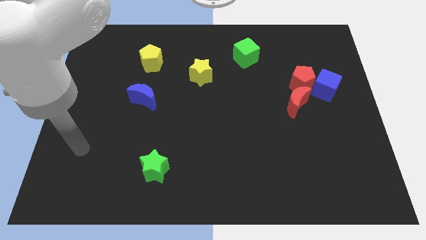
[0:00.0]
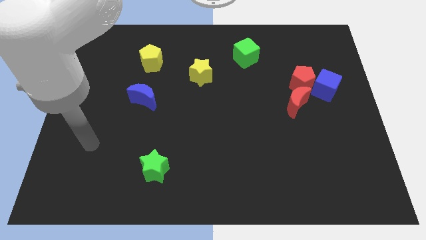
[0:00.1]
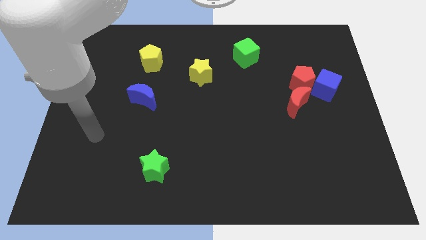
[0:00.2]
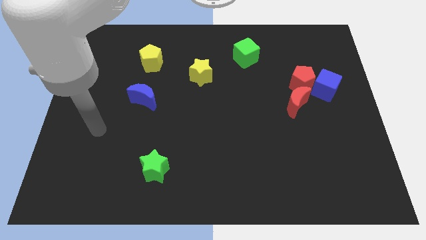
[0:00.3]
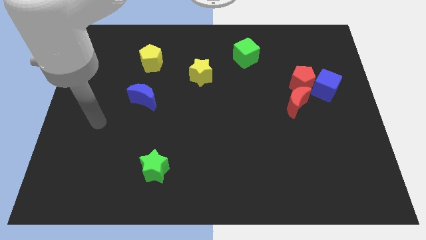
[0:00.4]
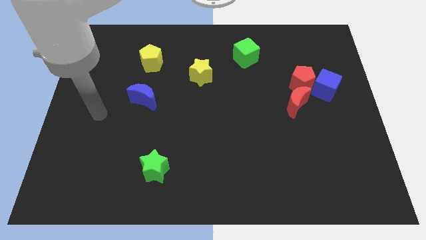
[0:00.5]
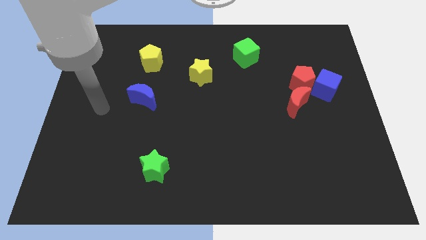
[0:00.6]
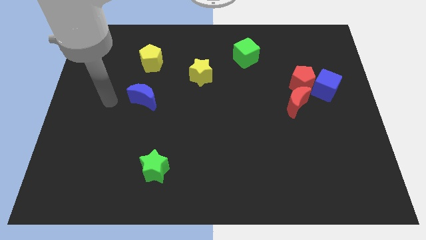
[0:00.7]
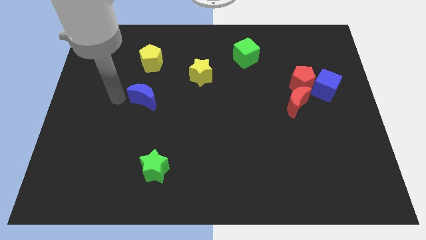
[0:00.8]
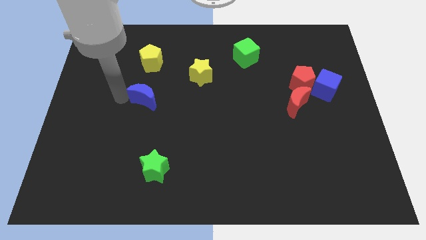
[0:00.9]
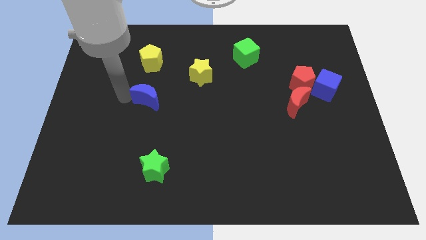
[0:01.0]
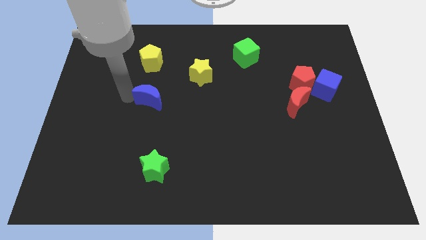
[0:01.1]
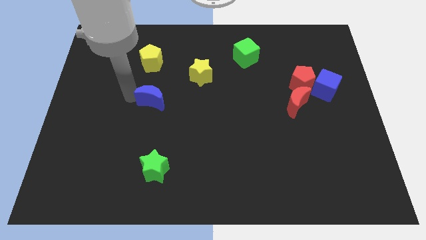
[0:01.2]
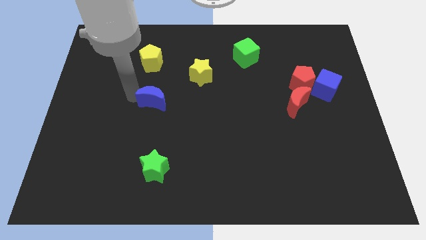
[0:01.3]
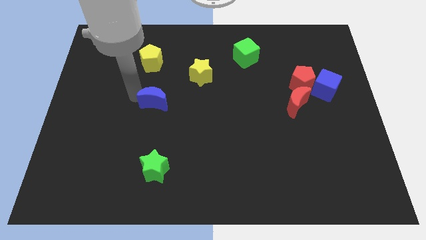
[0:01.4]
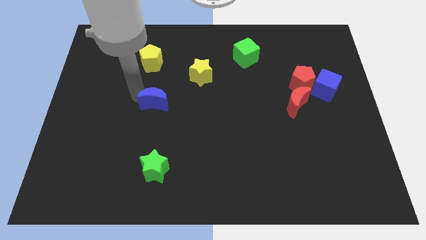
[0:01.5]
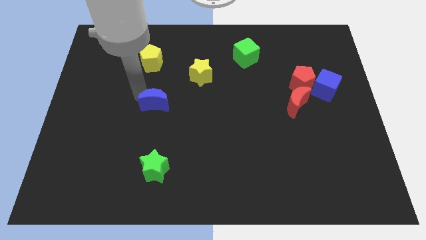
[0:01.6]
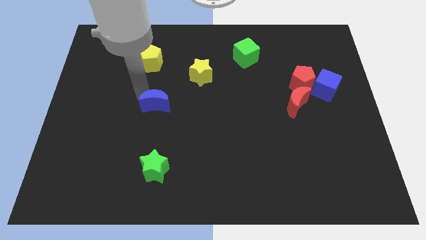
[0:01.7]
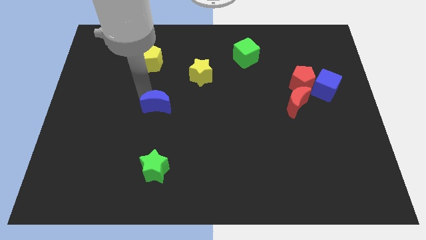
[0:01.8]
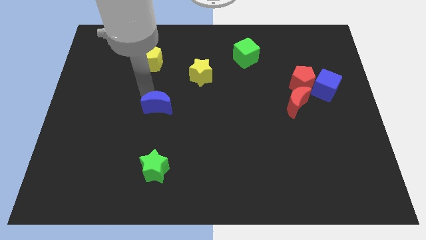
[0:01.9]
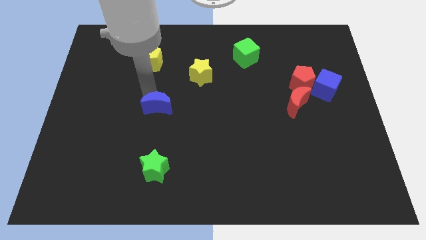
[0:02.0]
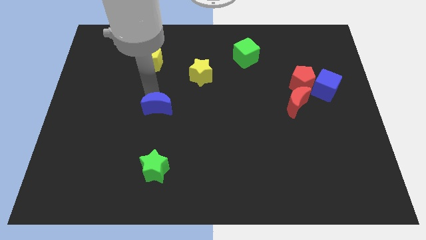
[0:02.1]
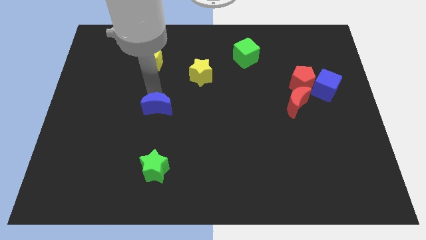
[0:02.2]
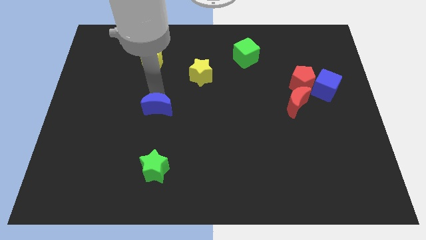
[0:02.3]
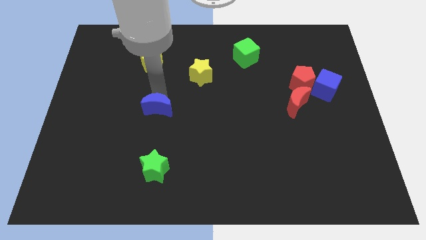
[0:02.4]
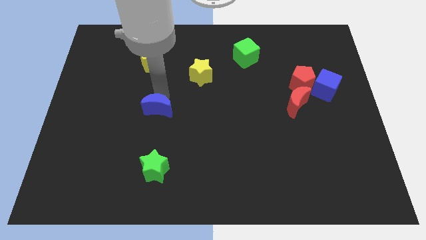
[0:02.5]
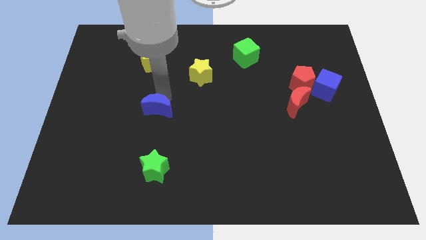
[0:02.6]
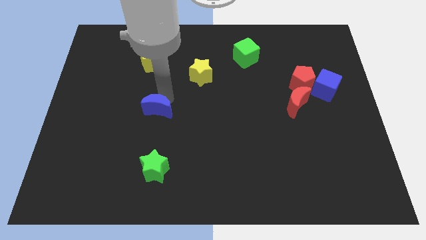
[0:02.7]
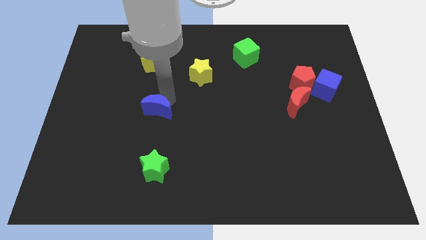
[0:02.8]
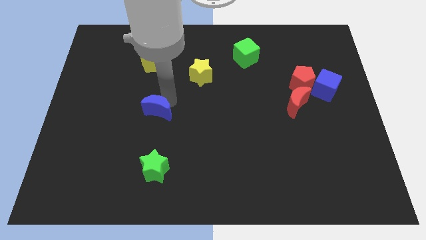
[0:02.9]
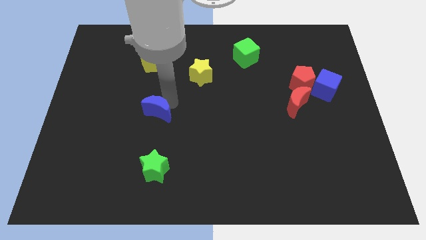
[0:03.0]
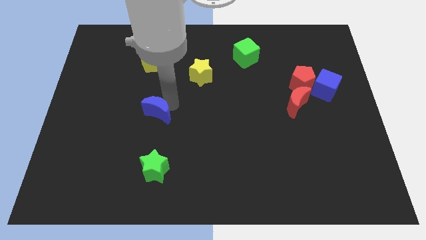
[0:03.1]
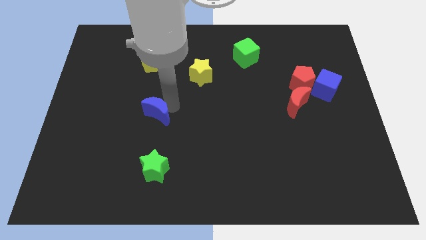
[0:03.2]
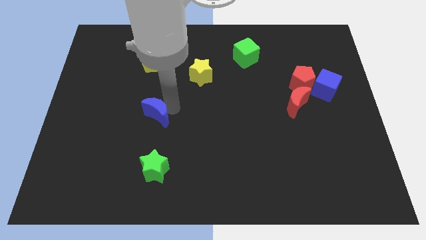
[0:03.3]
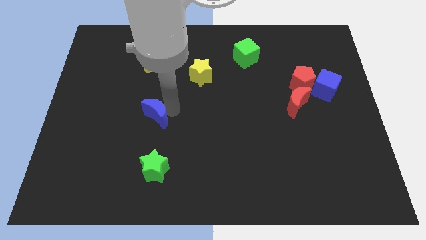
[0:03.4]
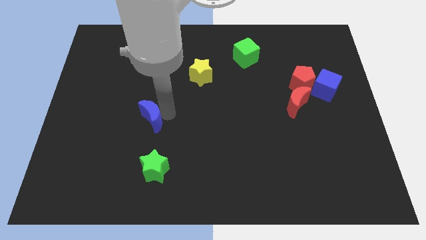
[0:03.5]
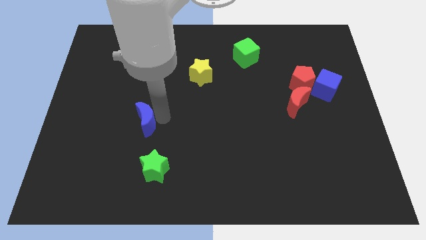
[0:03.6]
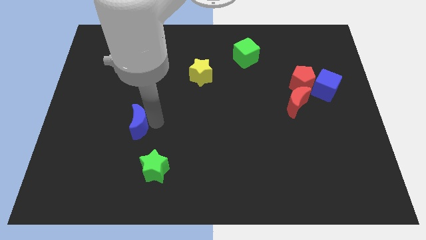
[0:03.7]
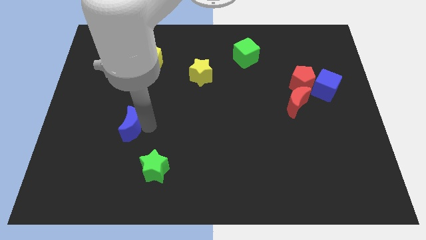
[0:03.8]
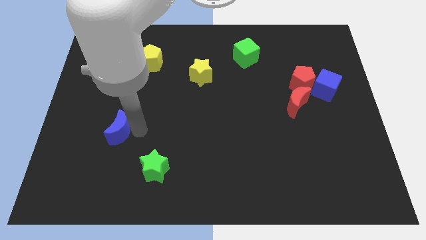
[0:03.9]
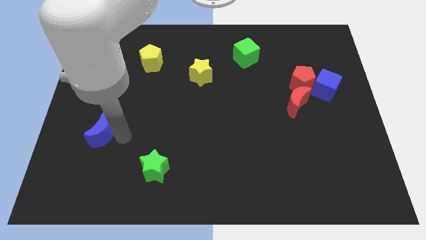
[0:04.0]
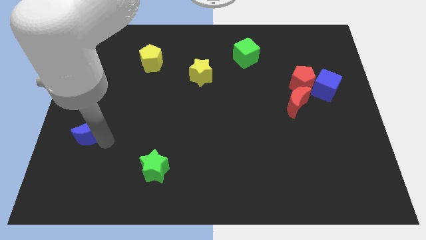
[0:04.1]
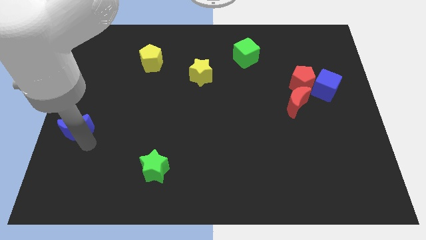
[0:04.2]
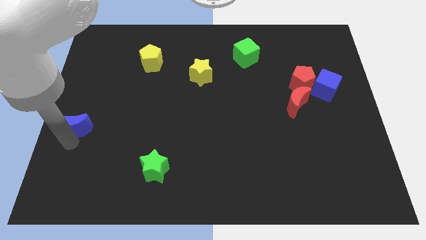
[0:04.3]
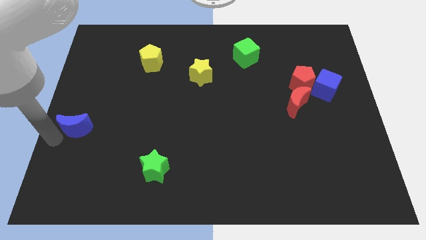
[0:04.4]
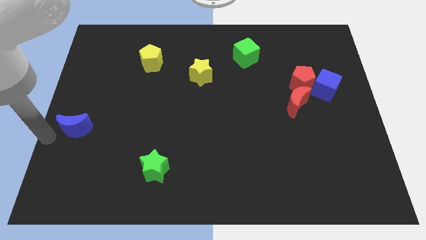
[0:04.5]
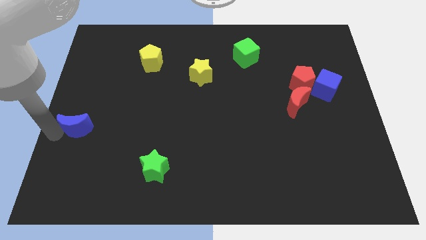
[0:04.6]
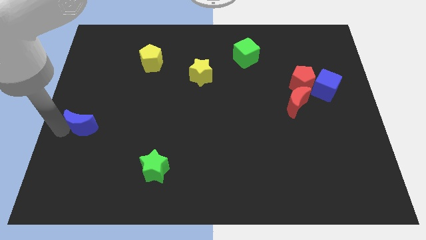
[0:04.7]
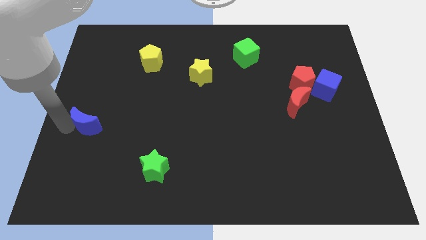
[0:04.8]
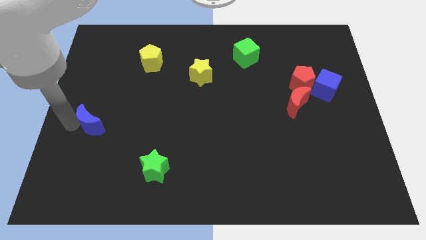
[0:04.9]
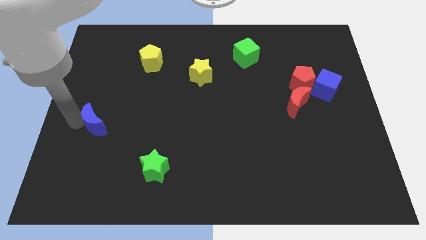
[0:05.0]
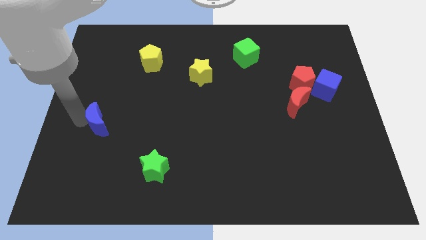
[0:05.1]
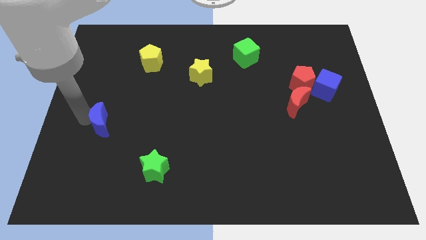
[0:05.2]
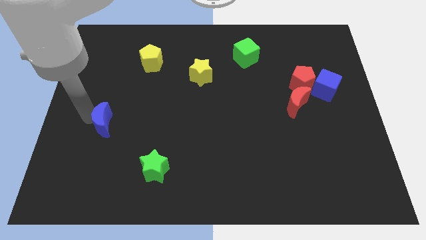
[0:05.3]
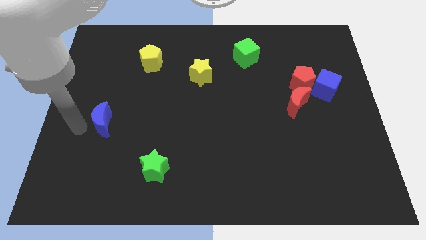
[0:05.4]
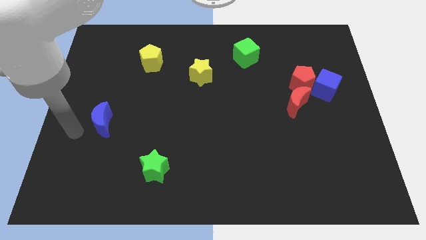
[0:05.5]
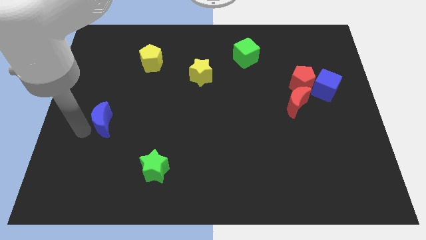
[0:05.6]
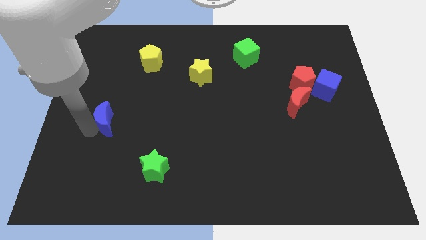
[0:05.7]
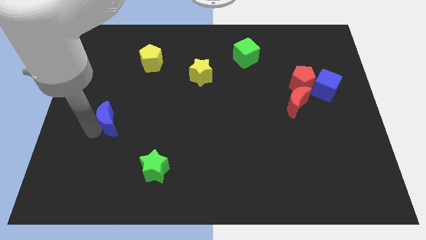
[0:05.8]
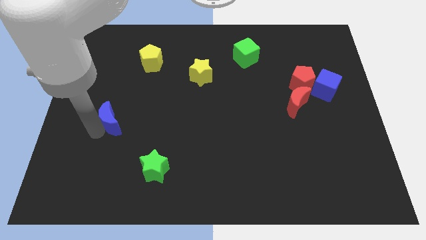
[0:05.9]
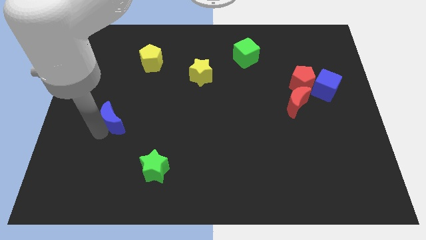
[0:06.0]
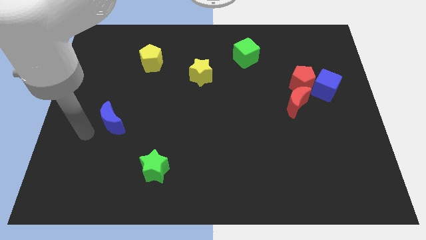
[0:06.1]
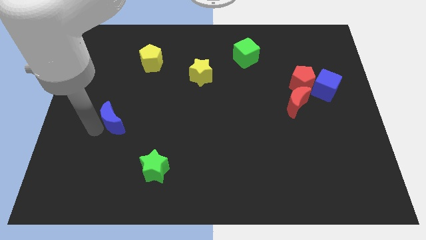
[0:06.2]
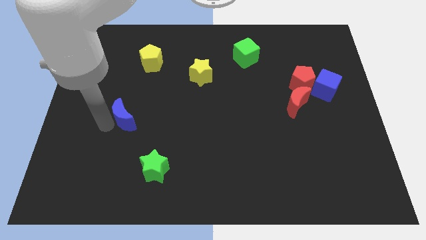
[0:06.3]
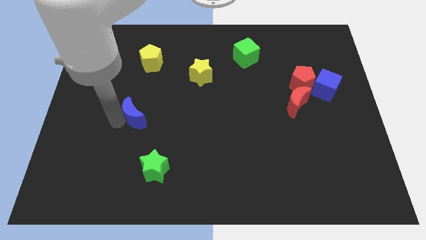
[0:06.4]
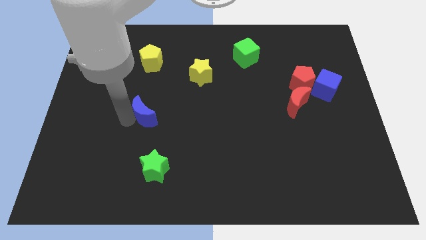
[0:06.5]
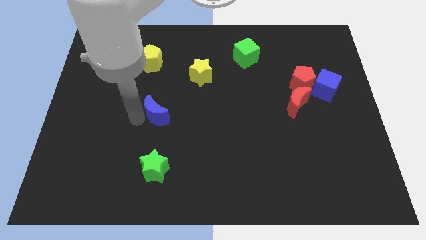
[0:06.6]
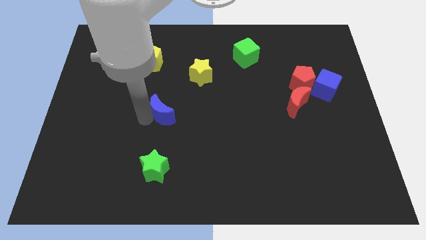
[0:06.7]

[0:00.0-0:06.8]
push the blue moon to the center of the board
